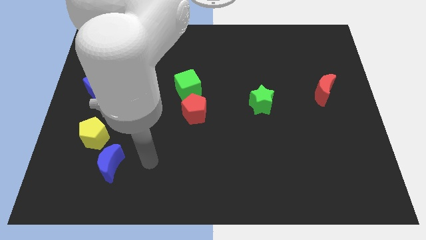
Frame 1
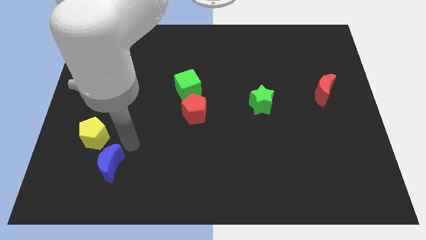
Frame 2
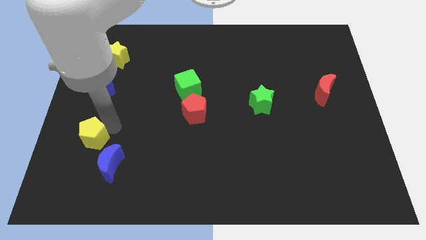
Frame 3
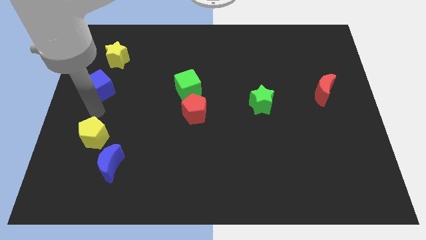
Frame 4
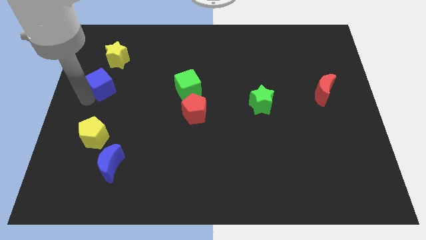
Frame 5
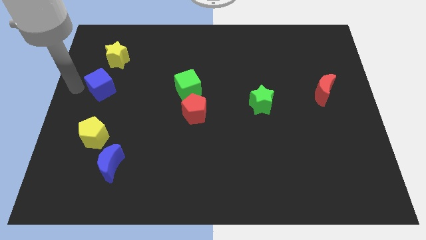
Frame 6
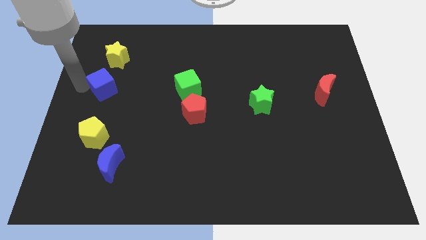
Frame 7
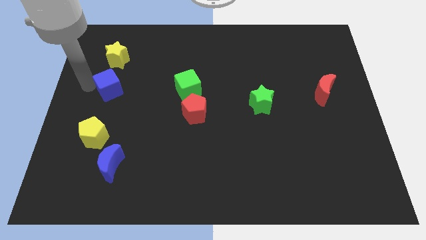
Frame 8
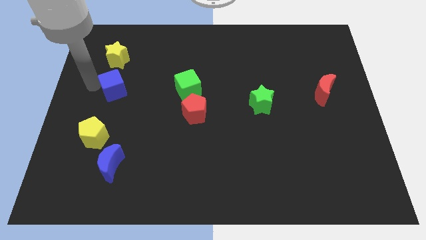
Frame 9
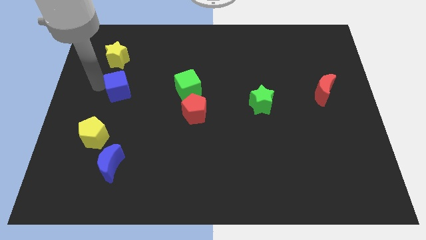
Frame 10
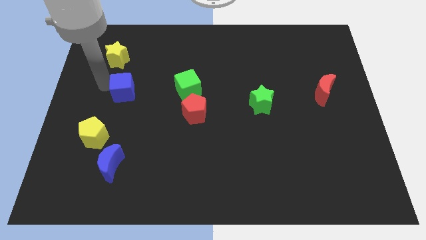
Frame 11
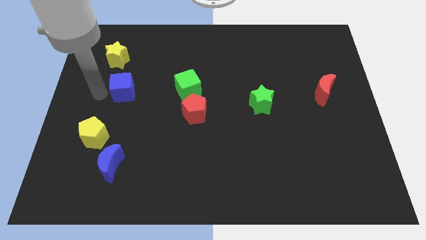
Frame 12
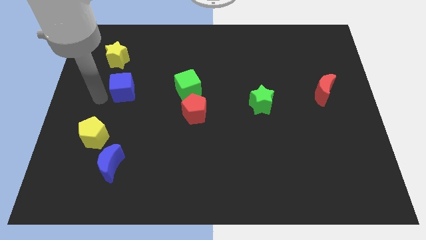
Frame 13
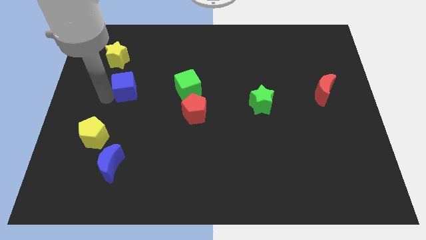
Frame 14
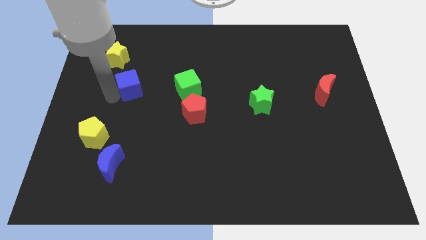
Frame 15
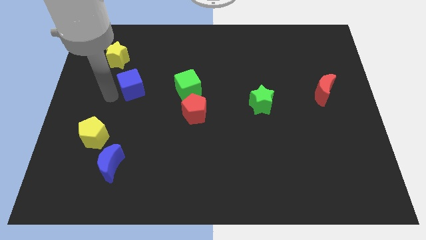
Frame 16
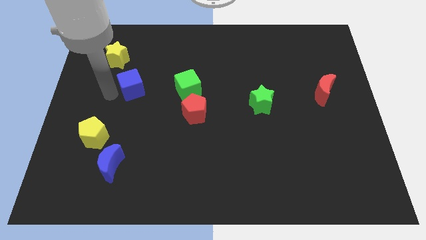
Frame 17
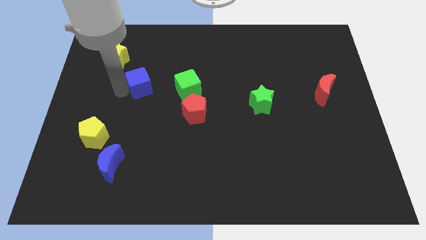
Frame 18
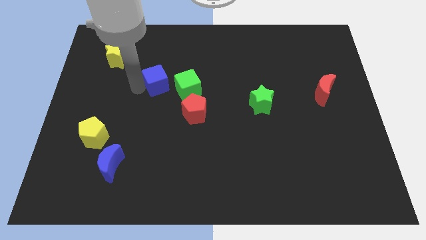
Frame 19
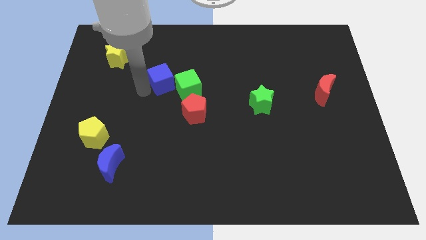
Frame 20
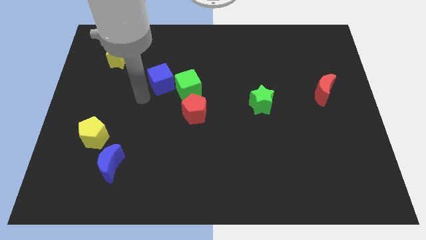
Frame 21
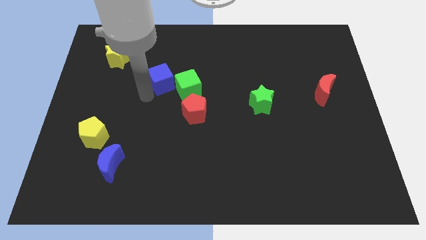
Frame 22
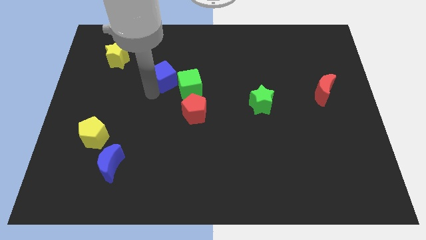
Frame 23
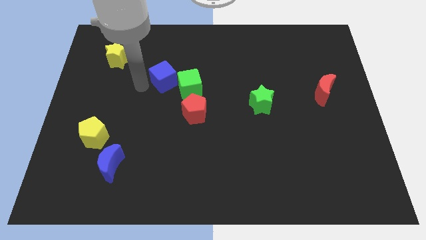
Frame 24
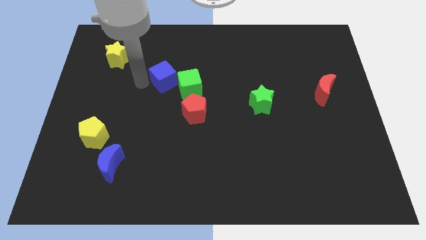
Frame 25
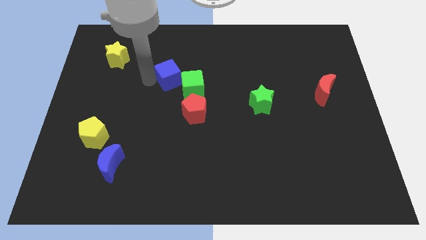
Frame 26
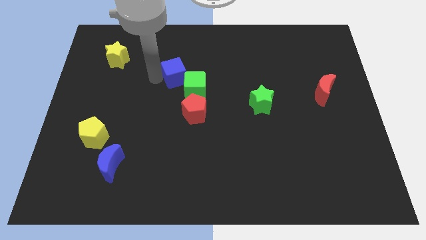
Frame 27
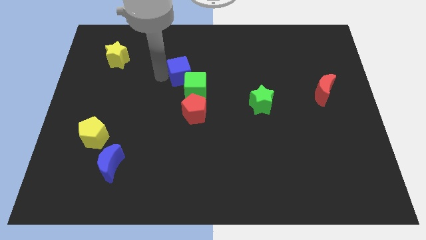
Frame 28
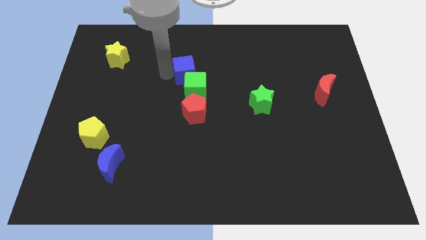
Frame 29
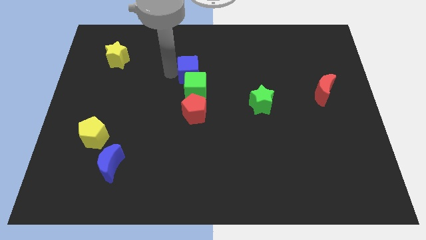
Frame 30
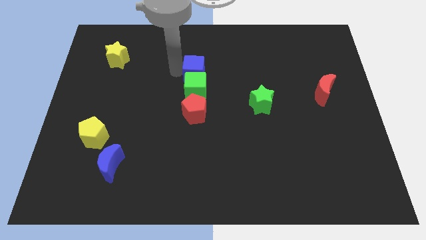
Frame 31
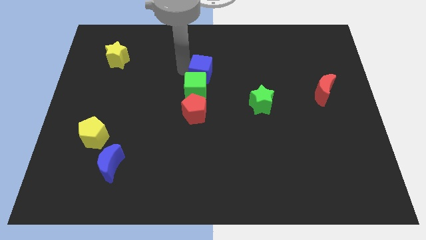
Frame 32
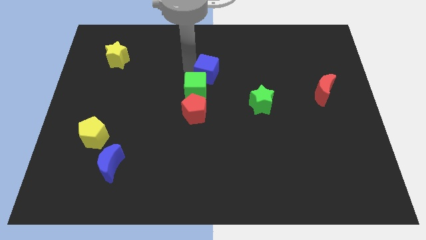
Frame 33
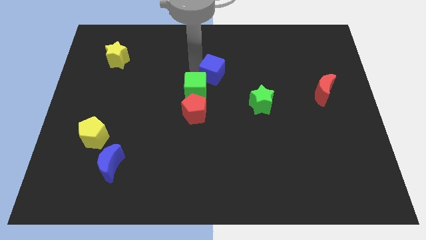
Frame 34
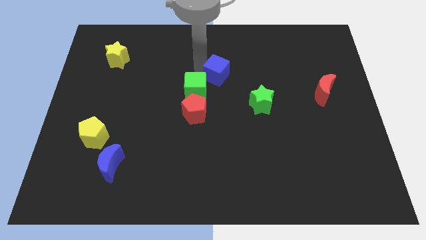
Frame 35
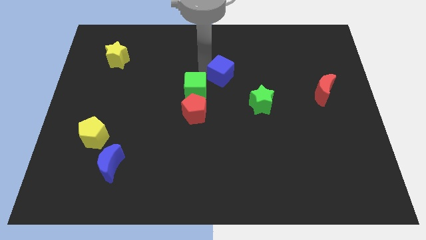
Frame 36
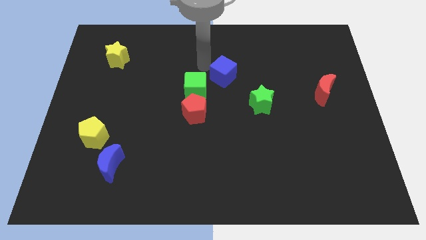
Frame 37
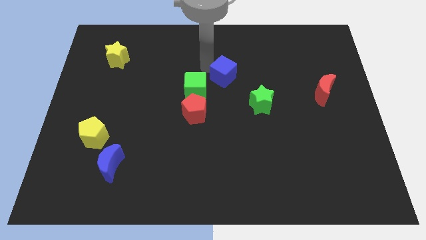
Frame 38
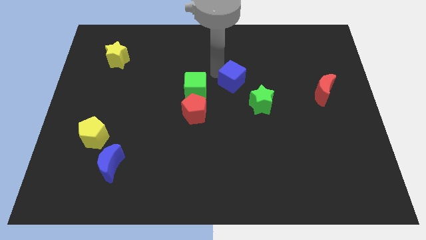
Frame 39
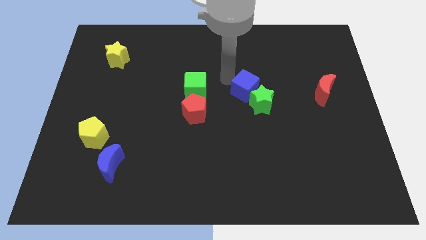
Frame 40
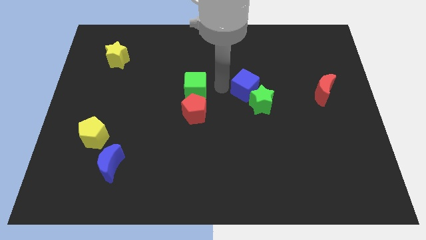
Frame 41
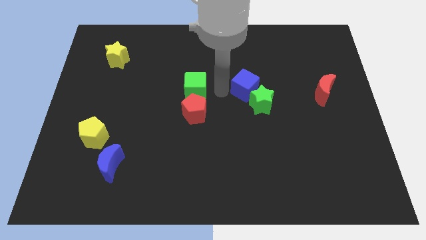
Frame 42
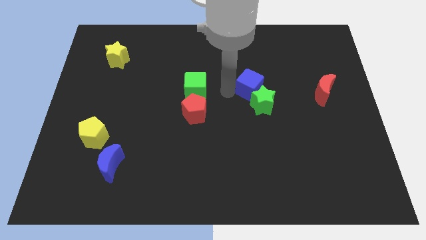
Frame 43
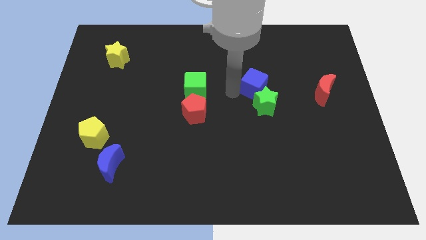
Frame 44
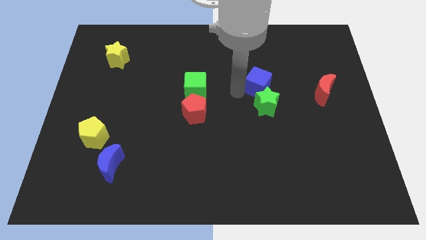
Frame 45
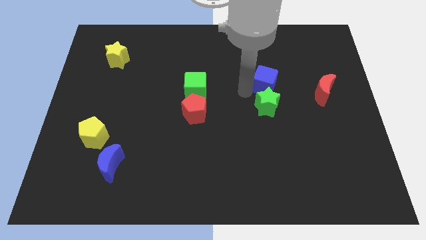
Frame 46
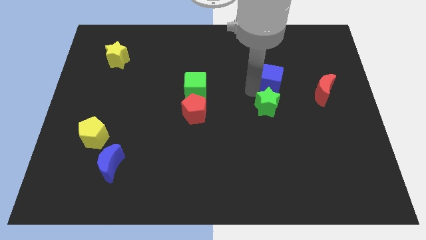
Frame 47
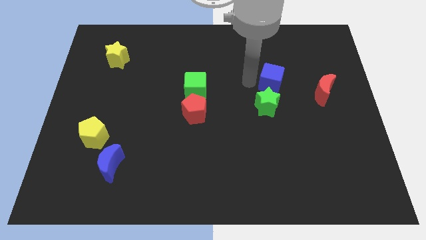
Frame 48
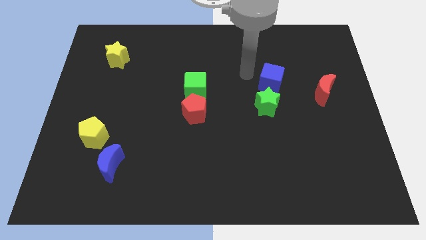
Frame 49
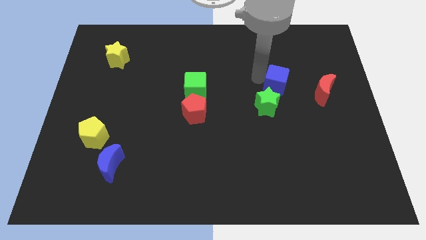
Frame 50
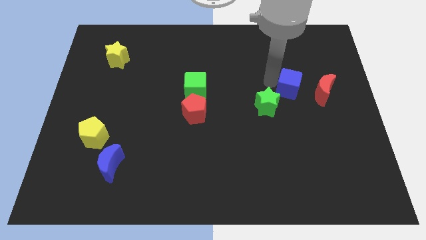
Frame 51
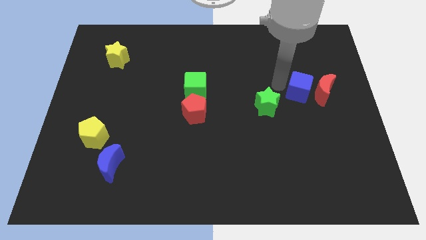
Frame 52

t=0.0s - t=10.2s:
push the blue cube towards the red moon

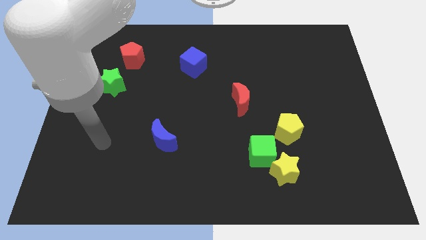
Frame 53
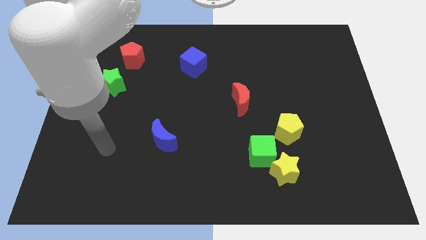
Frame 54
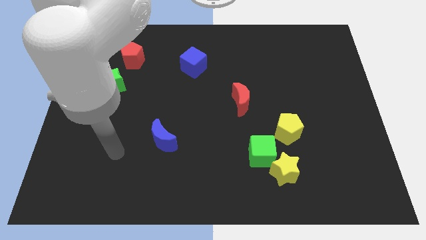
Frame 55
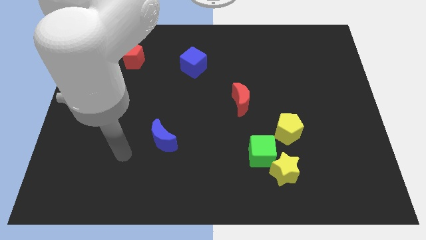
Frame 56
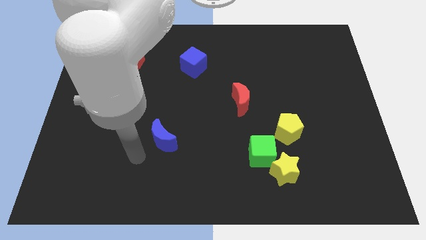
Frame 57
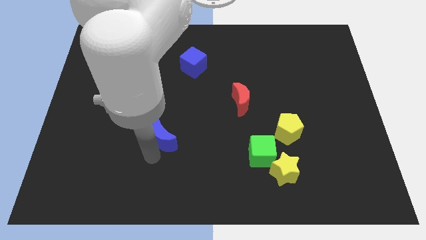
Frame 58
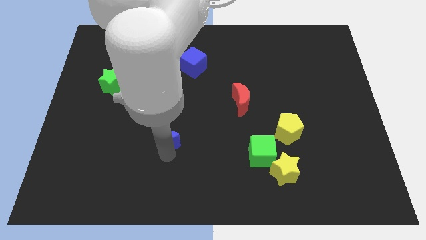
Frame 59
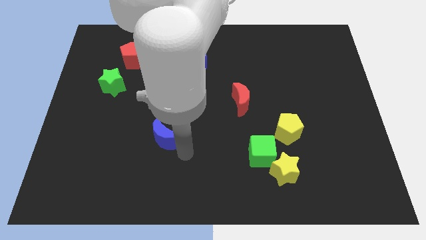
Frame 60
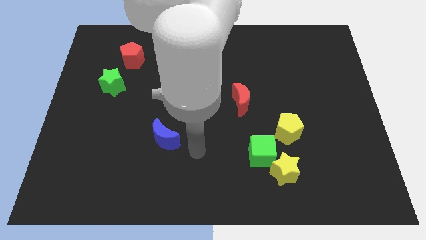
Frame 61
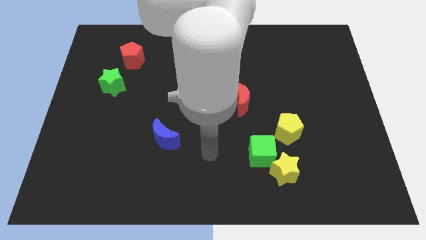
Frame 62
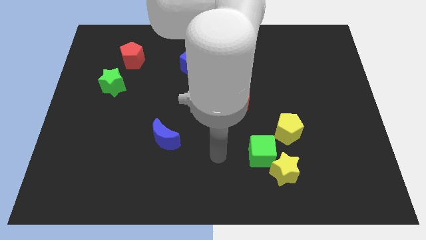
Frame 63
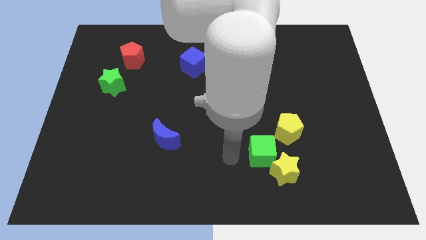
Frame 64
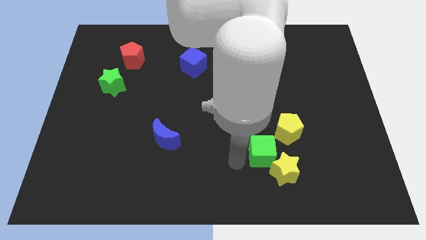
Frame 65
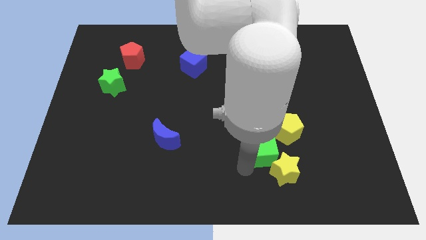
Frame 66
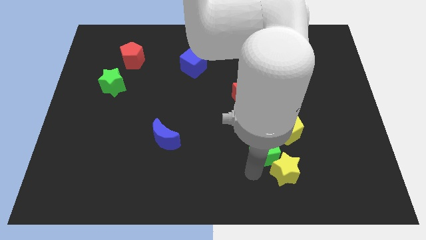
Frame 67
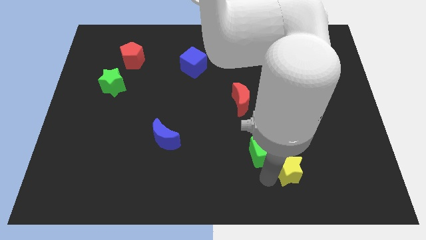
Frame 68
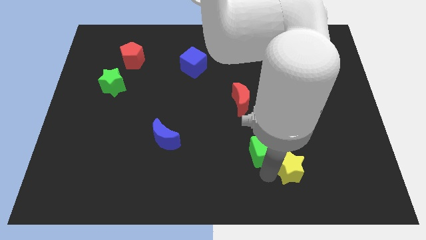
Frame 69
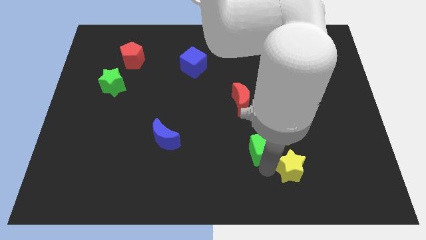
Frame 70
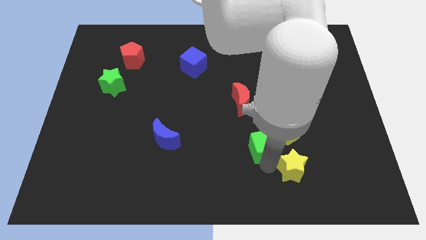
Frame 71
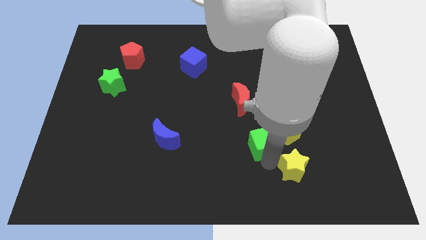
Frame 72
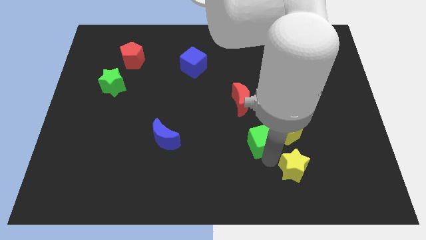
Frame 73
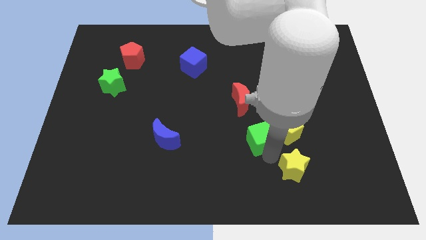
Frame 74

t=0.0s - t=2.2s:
put the green cube to the yellow pentagon
